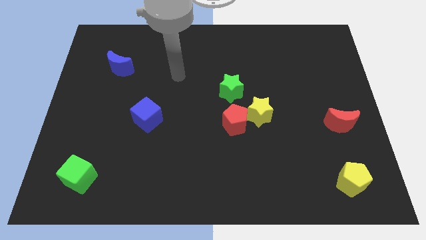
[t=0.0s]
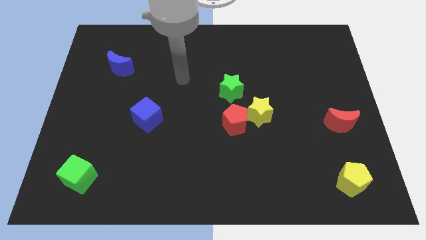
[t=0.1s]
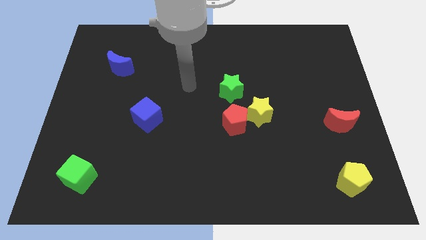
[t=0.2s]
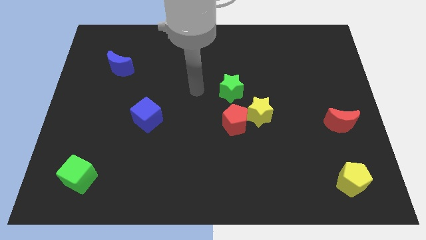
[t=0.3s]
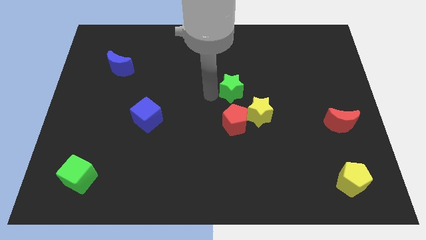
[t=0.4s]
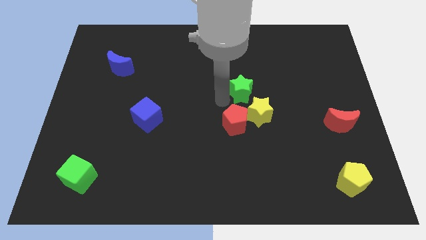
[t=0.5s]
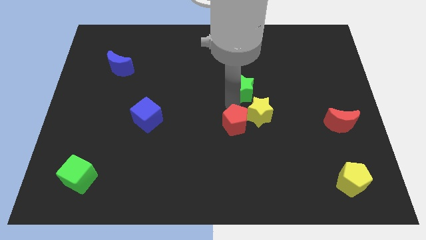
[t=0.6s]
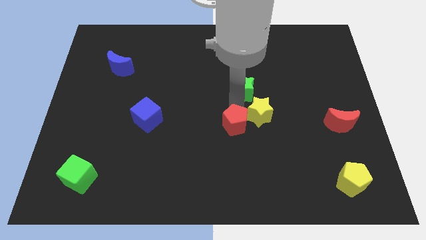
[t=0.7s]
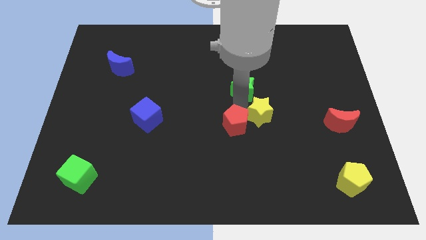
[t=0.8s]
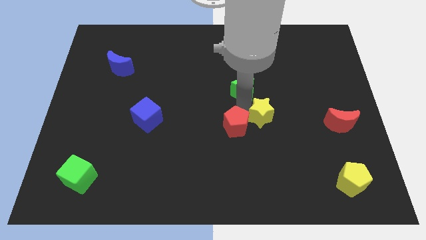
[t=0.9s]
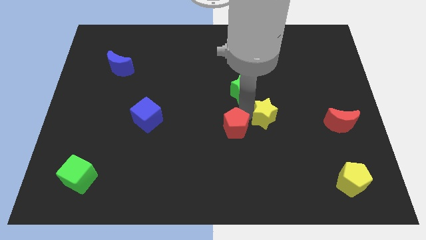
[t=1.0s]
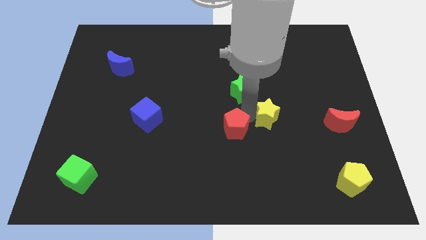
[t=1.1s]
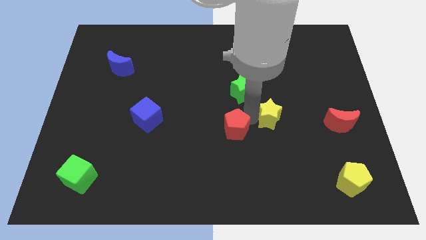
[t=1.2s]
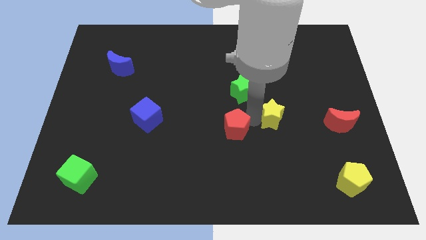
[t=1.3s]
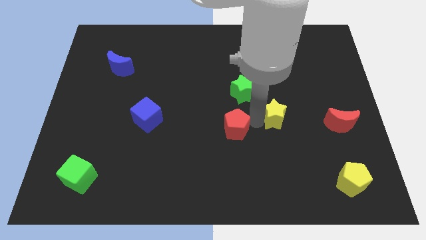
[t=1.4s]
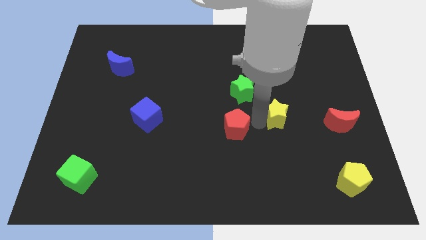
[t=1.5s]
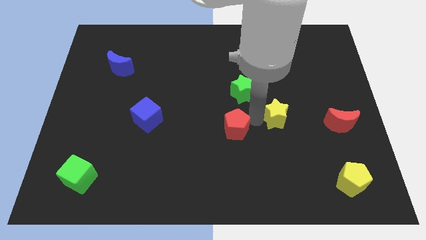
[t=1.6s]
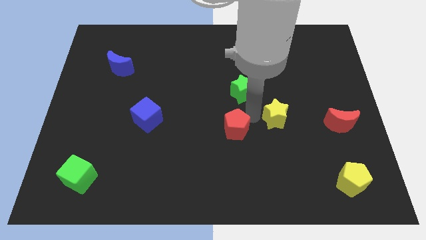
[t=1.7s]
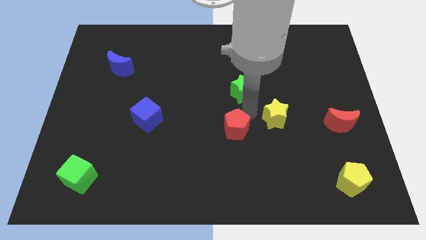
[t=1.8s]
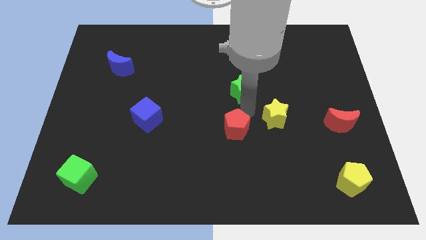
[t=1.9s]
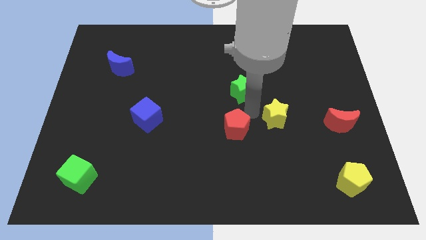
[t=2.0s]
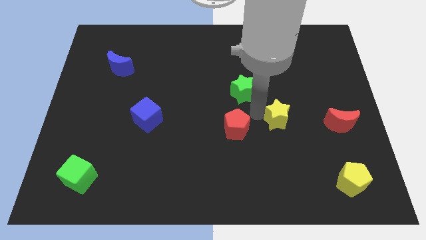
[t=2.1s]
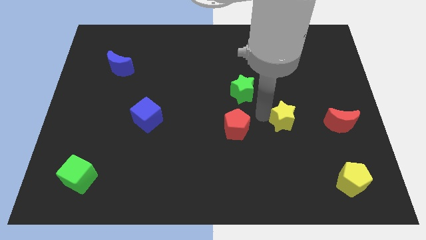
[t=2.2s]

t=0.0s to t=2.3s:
pull the yellow star apart from the red pentagon and green star

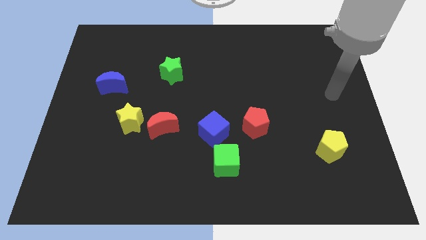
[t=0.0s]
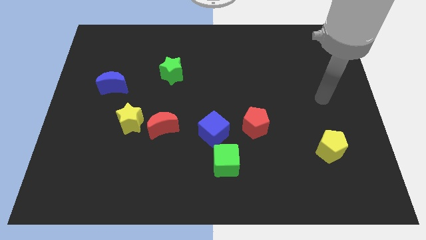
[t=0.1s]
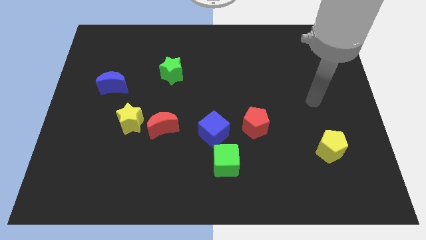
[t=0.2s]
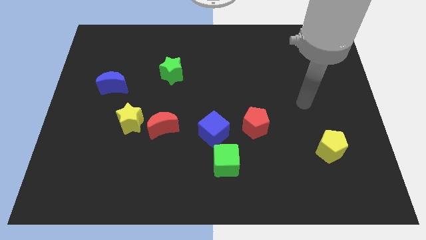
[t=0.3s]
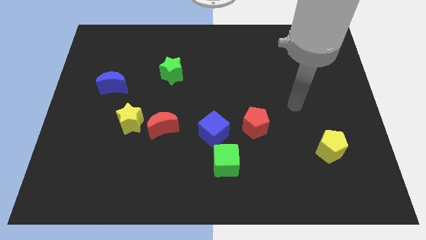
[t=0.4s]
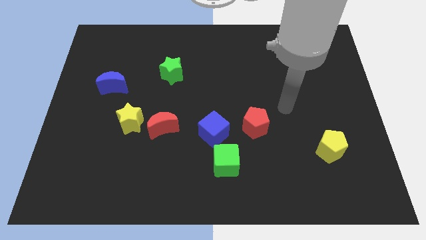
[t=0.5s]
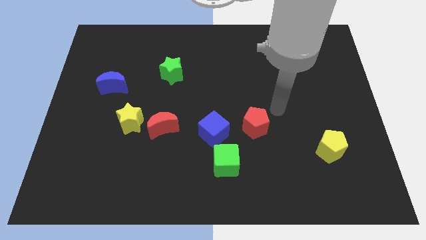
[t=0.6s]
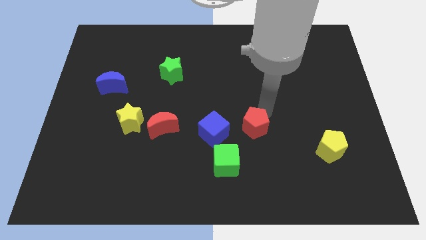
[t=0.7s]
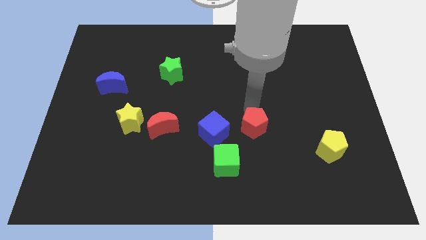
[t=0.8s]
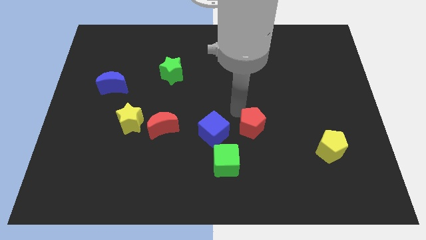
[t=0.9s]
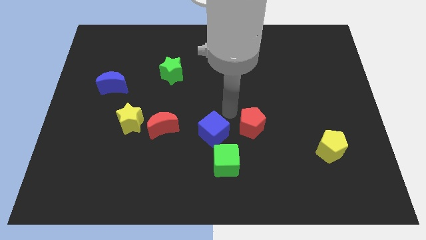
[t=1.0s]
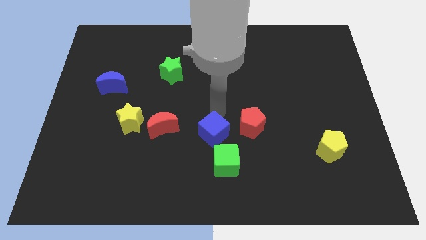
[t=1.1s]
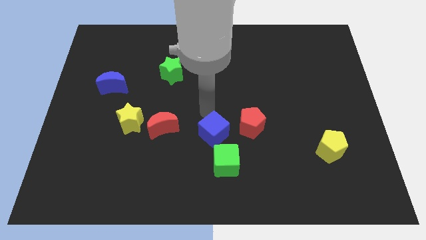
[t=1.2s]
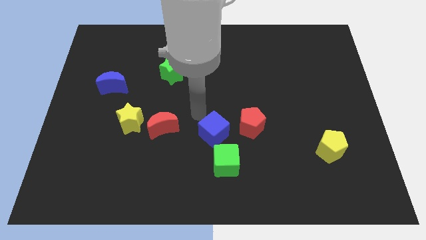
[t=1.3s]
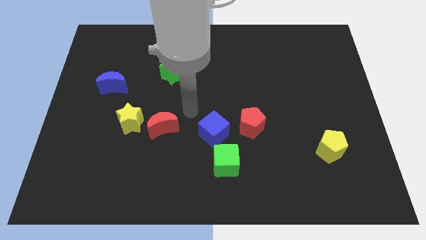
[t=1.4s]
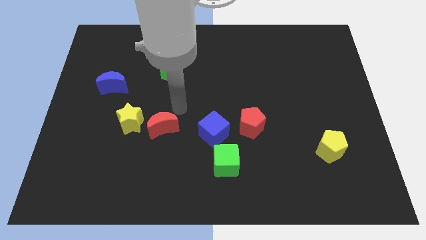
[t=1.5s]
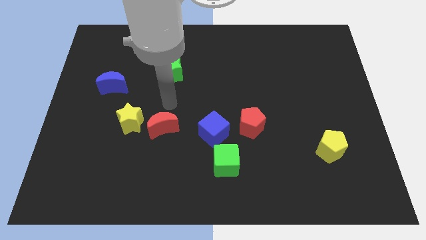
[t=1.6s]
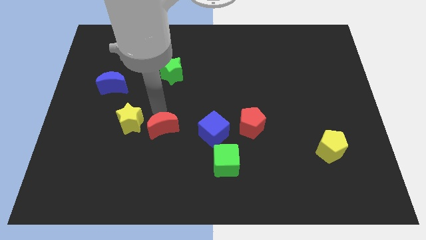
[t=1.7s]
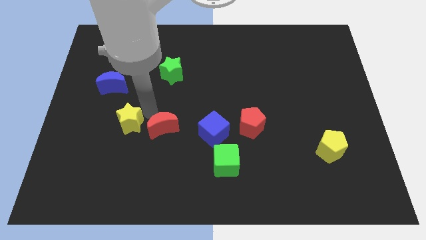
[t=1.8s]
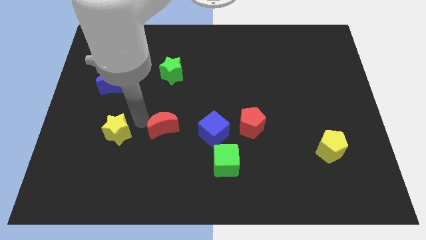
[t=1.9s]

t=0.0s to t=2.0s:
move the red moon away from the yellow star

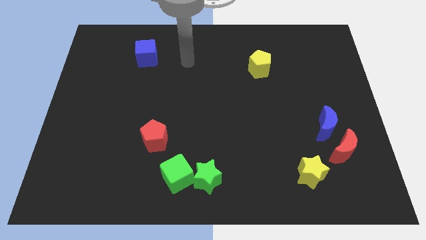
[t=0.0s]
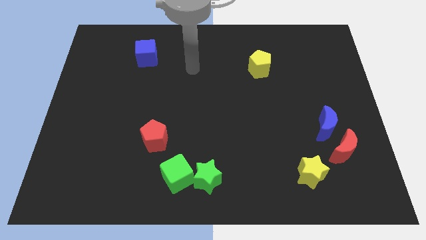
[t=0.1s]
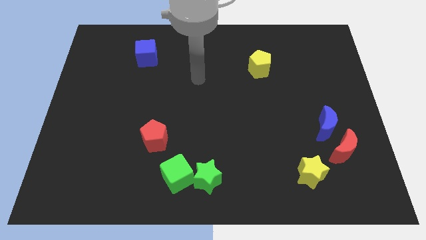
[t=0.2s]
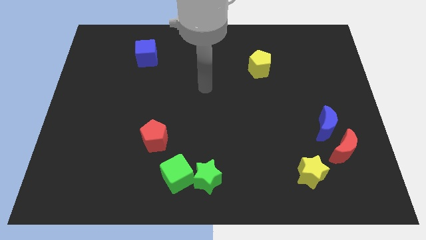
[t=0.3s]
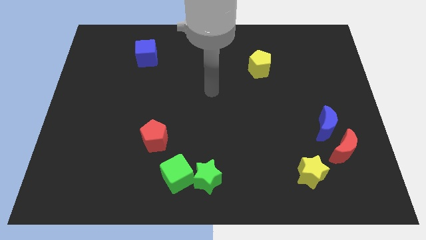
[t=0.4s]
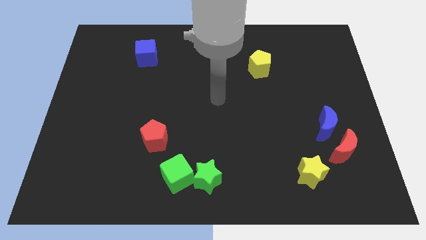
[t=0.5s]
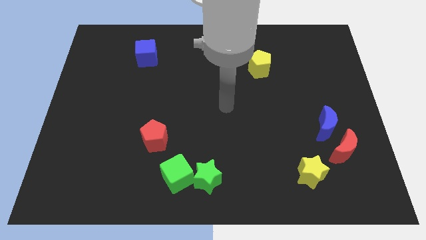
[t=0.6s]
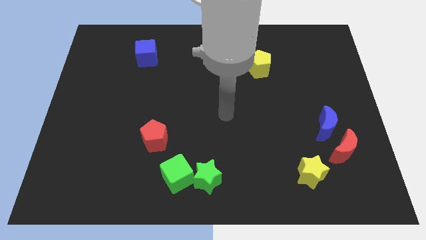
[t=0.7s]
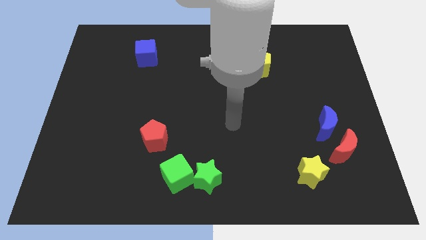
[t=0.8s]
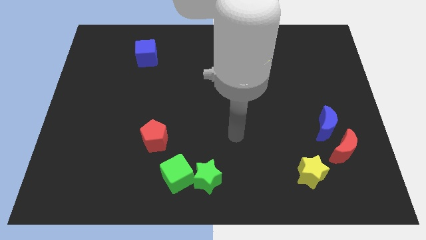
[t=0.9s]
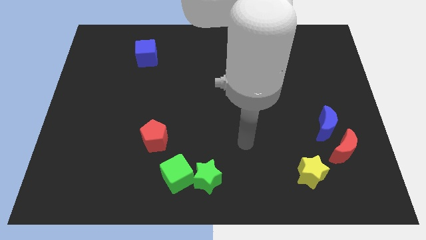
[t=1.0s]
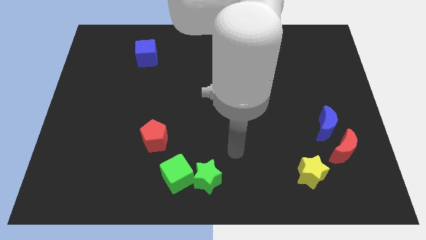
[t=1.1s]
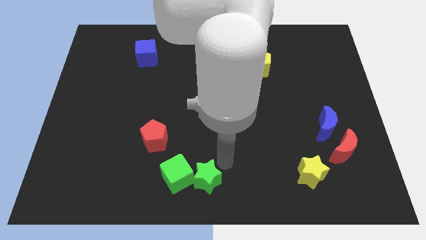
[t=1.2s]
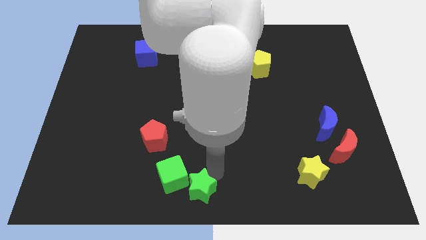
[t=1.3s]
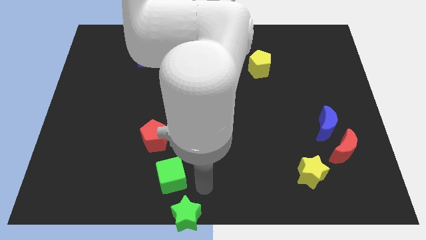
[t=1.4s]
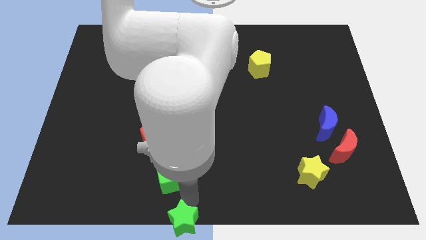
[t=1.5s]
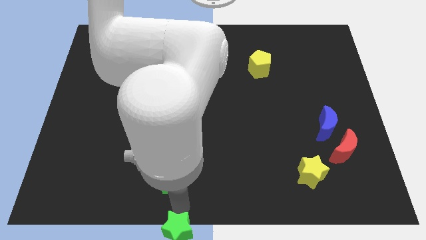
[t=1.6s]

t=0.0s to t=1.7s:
pull the green cube apart from the green star

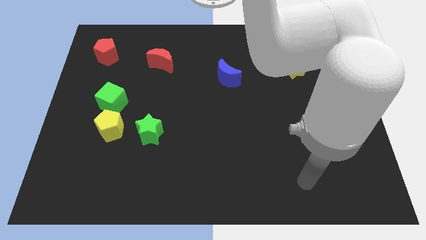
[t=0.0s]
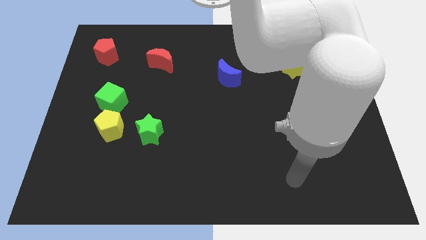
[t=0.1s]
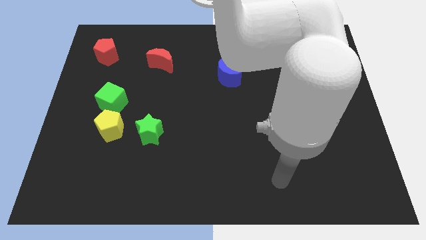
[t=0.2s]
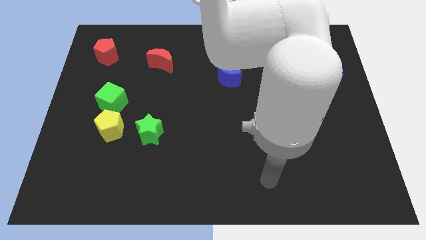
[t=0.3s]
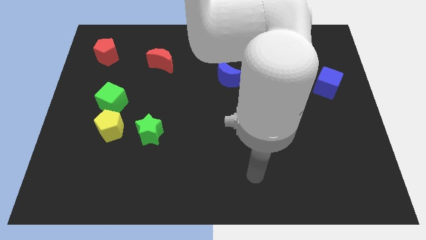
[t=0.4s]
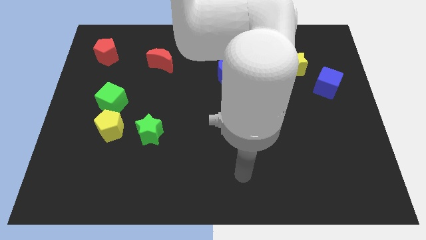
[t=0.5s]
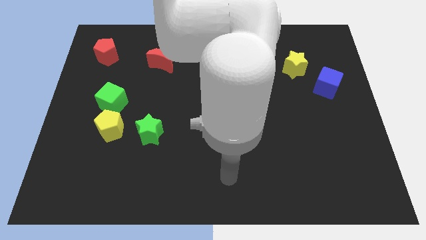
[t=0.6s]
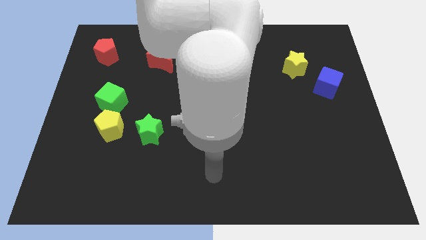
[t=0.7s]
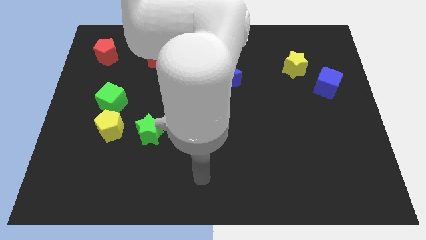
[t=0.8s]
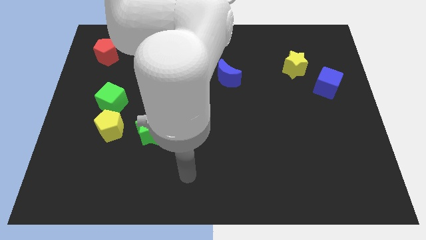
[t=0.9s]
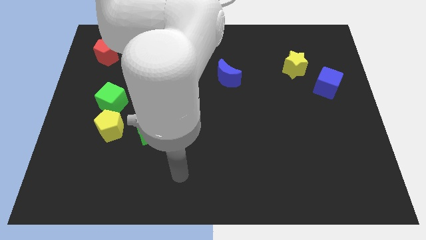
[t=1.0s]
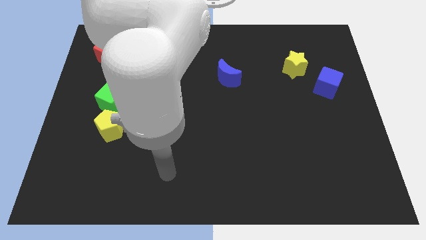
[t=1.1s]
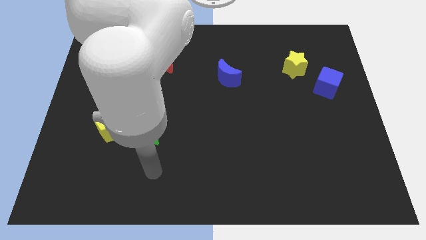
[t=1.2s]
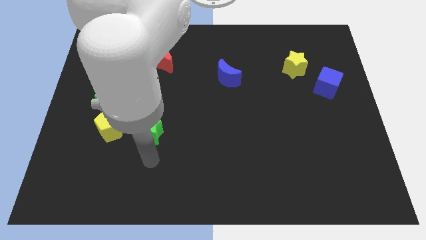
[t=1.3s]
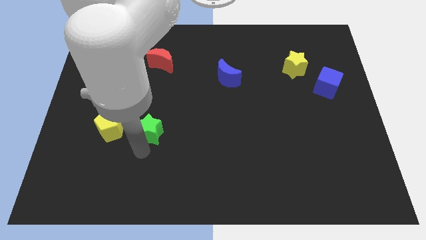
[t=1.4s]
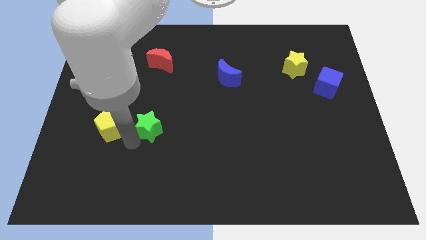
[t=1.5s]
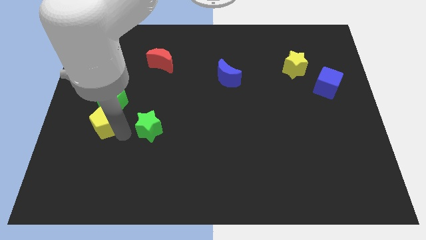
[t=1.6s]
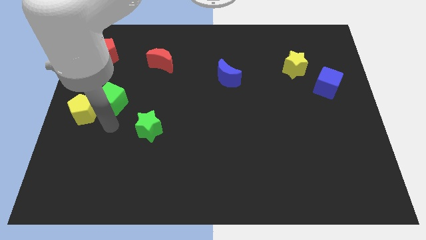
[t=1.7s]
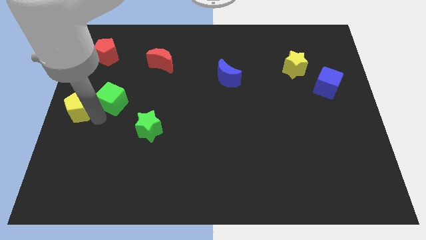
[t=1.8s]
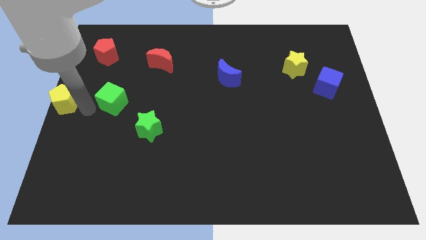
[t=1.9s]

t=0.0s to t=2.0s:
pull the green cube apart from the yellow pentagon

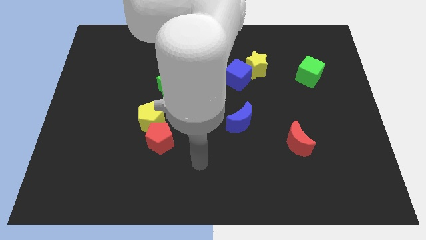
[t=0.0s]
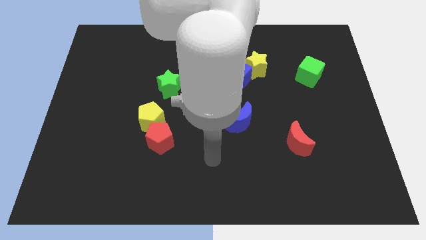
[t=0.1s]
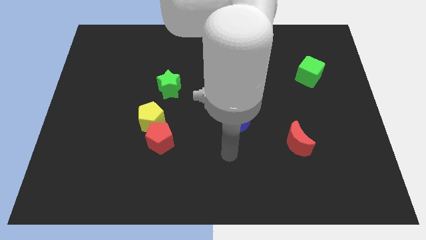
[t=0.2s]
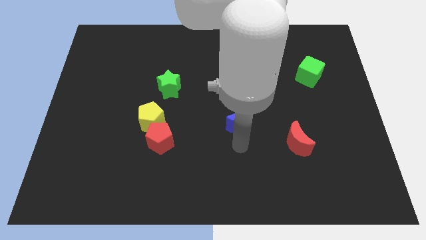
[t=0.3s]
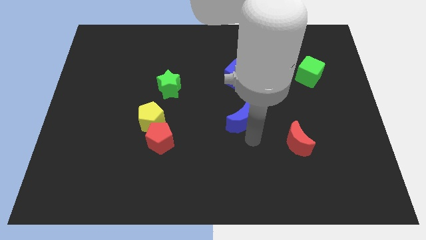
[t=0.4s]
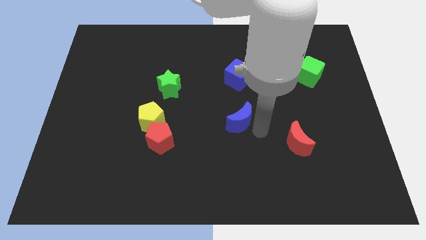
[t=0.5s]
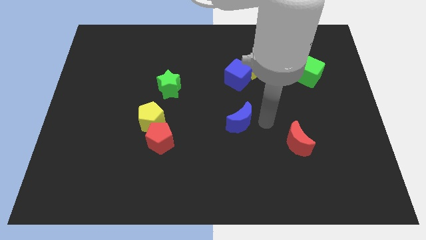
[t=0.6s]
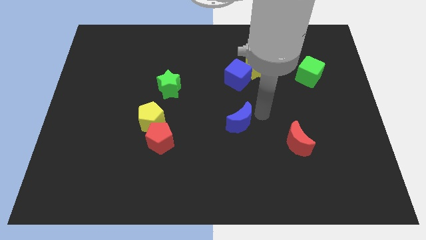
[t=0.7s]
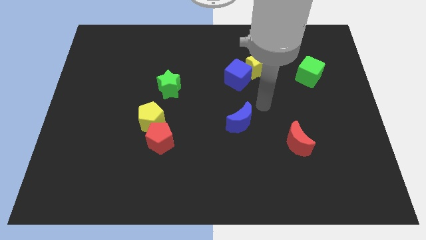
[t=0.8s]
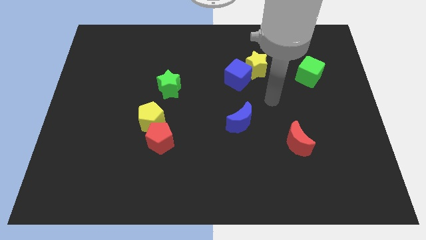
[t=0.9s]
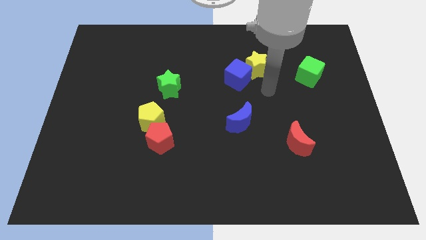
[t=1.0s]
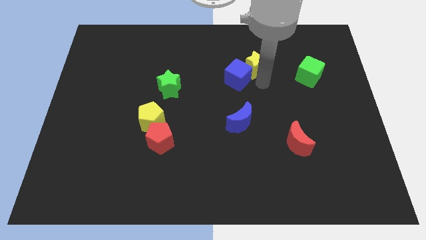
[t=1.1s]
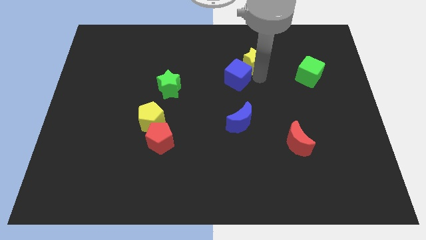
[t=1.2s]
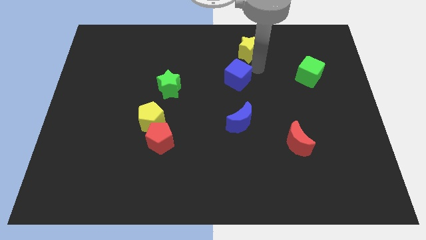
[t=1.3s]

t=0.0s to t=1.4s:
pull the blue cube apart from the yellow star
